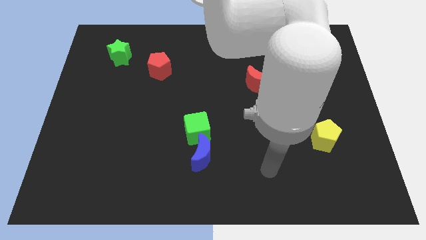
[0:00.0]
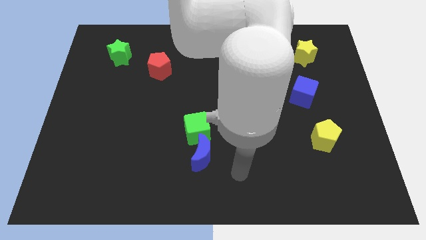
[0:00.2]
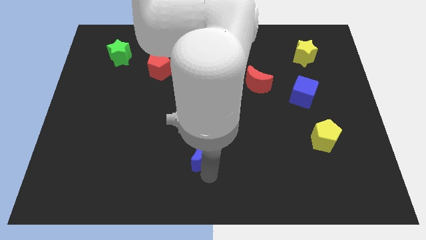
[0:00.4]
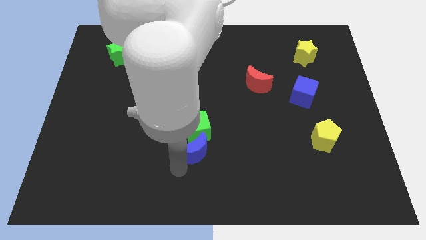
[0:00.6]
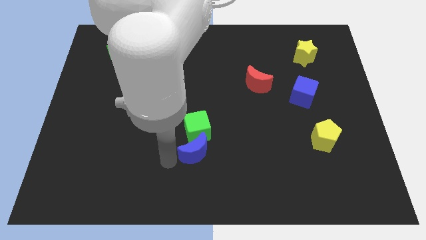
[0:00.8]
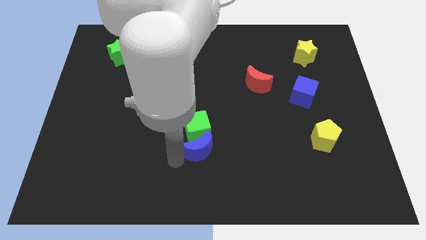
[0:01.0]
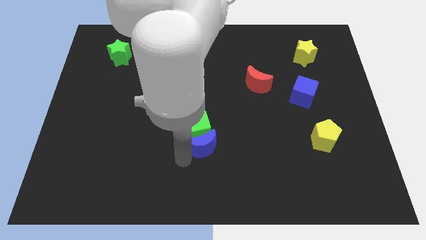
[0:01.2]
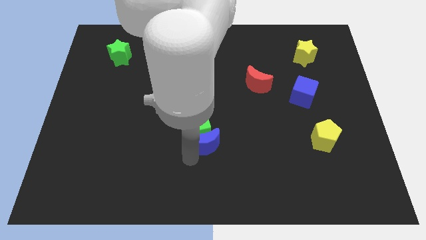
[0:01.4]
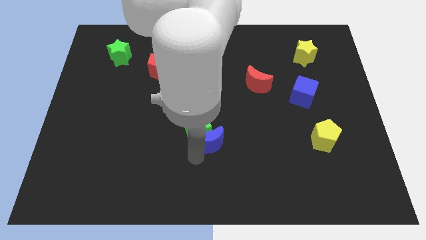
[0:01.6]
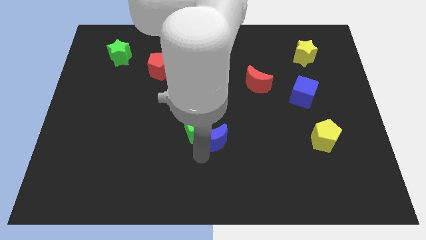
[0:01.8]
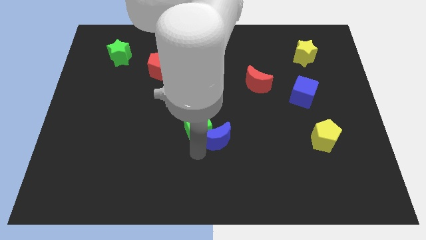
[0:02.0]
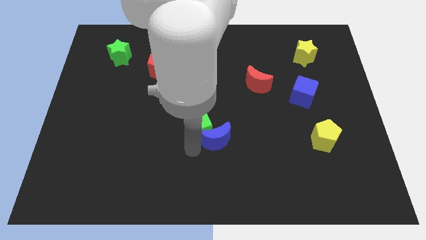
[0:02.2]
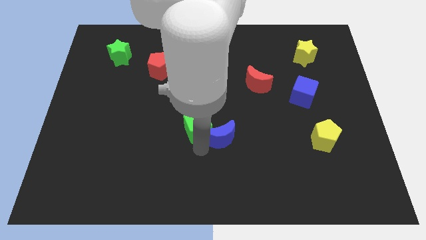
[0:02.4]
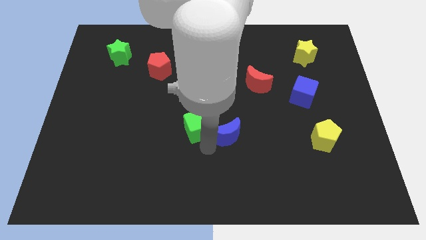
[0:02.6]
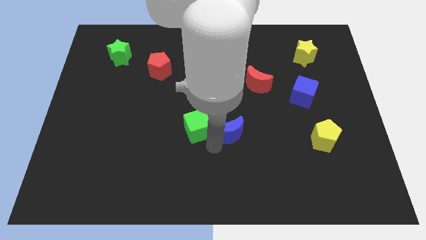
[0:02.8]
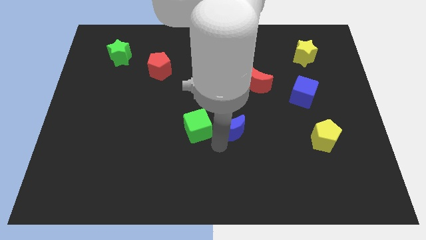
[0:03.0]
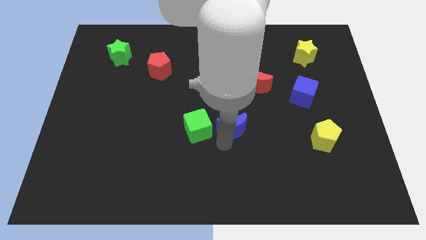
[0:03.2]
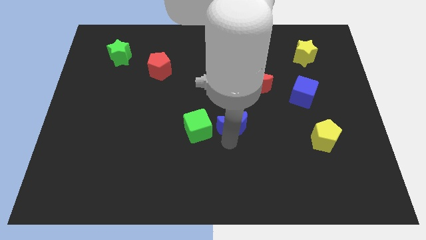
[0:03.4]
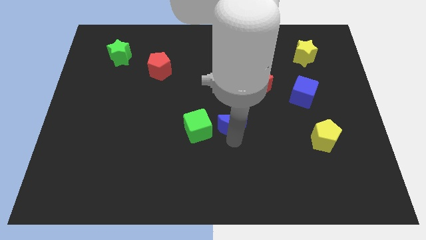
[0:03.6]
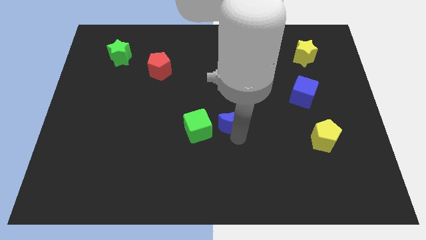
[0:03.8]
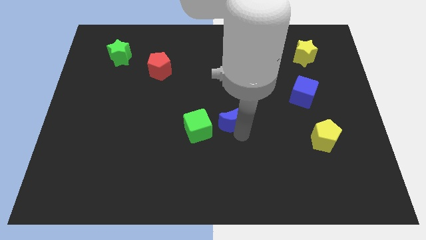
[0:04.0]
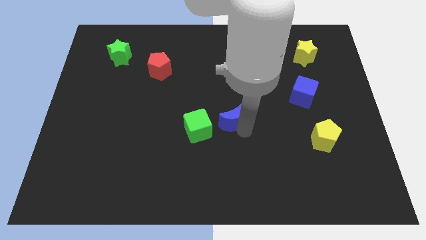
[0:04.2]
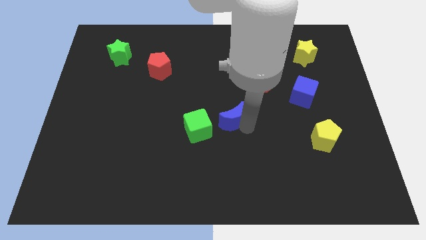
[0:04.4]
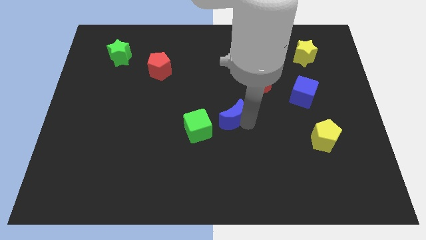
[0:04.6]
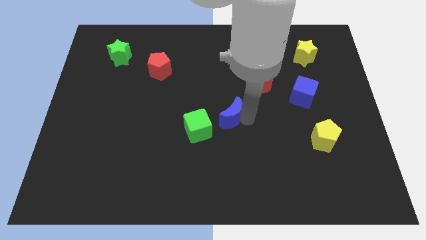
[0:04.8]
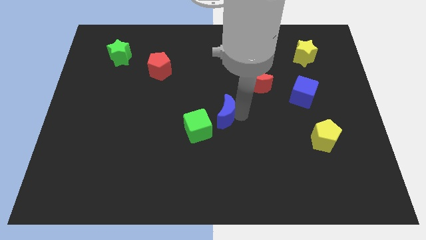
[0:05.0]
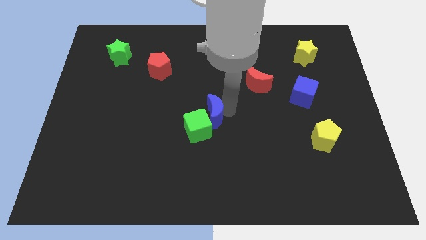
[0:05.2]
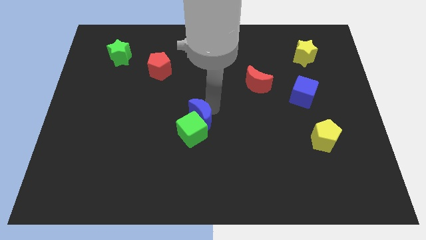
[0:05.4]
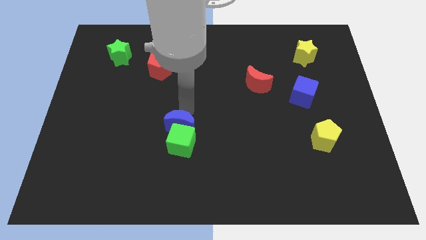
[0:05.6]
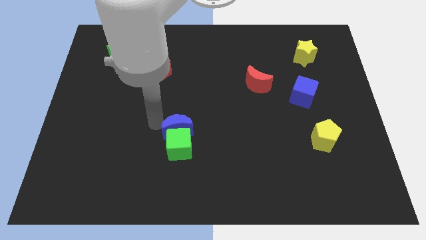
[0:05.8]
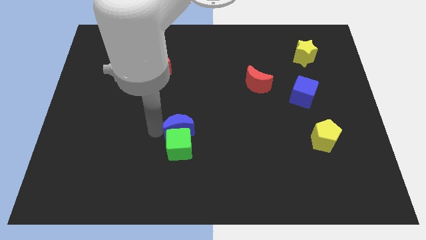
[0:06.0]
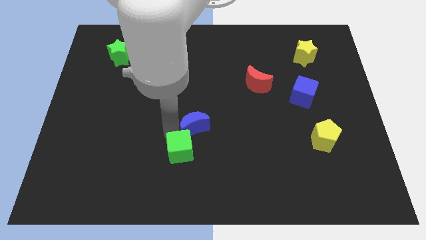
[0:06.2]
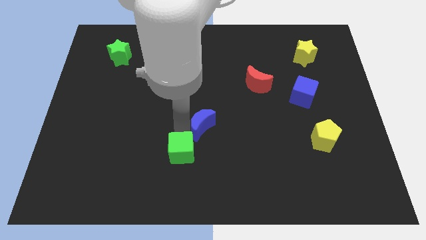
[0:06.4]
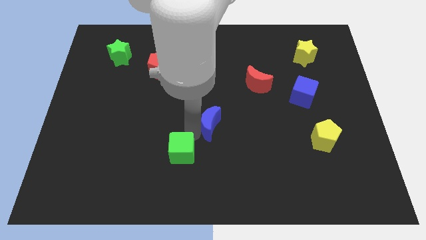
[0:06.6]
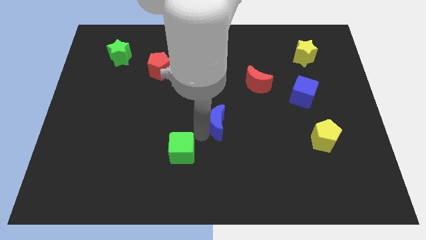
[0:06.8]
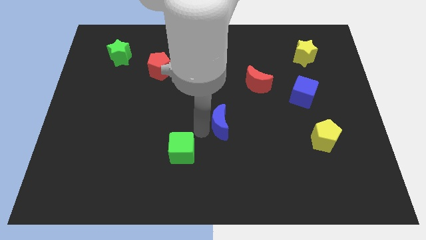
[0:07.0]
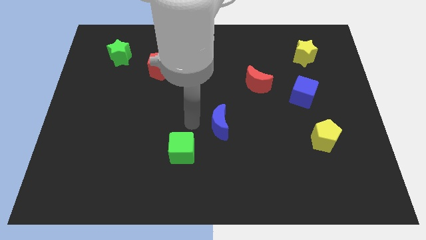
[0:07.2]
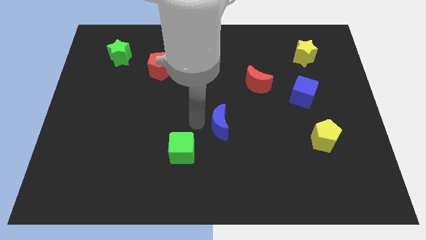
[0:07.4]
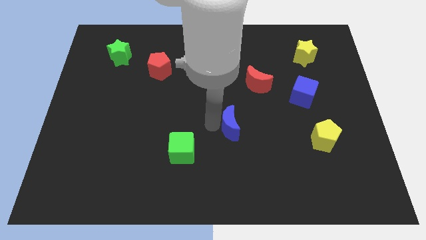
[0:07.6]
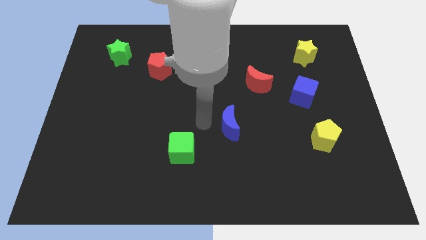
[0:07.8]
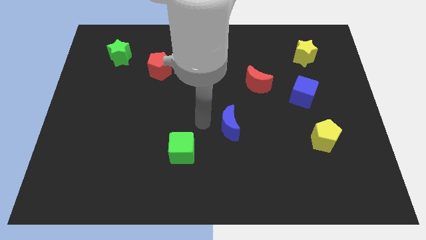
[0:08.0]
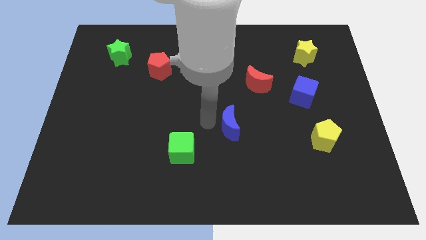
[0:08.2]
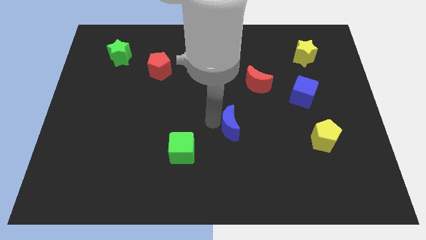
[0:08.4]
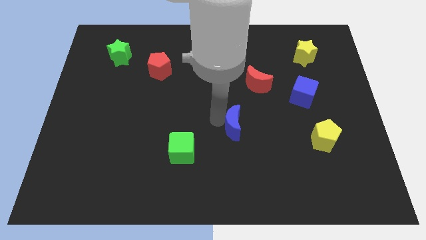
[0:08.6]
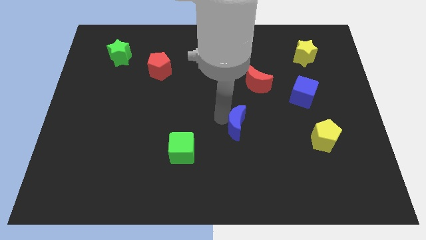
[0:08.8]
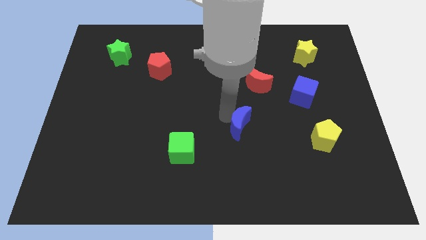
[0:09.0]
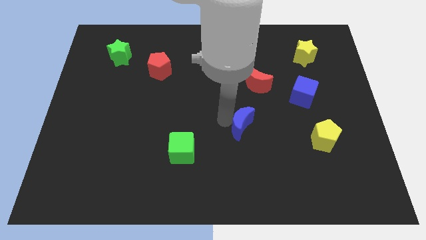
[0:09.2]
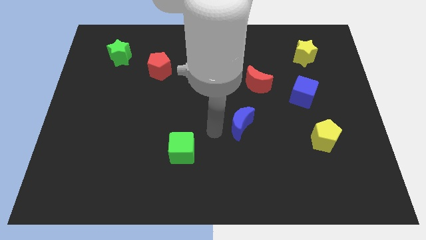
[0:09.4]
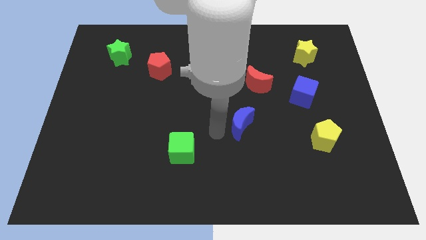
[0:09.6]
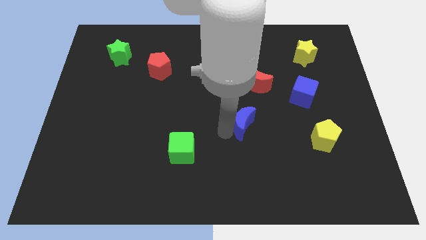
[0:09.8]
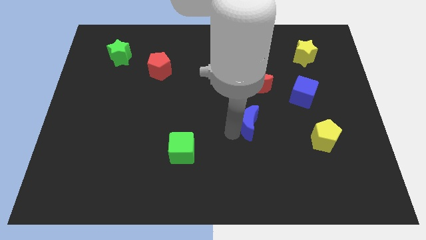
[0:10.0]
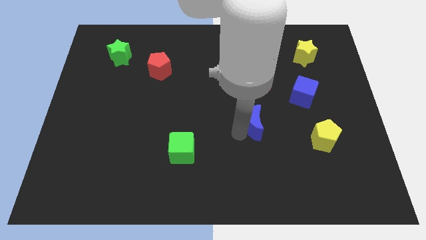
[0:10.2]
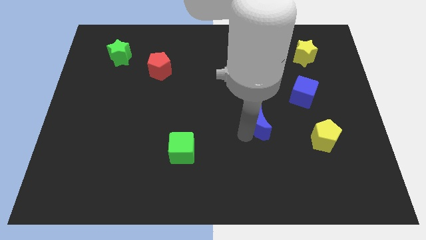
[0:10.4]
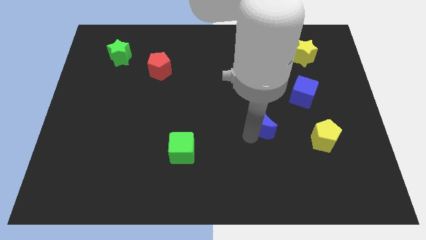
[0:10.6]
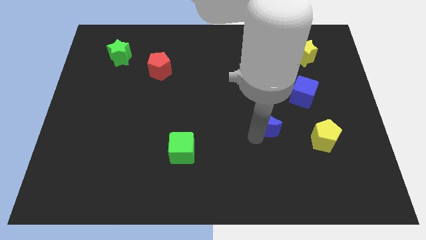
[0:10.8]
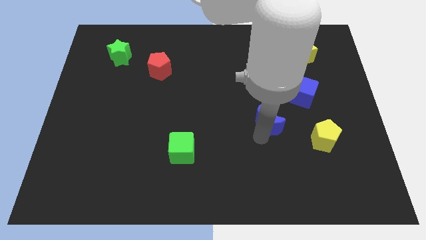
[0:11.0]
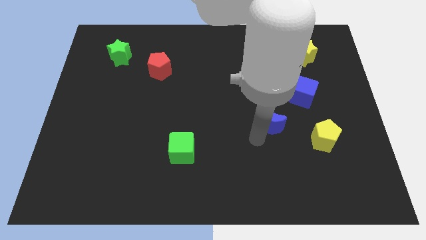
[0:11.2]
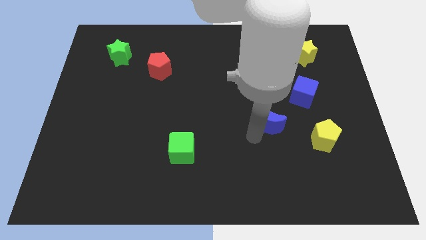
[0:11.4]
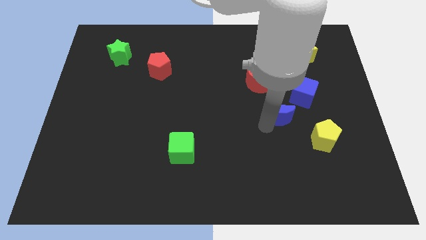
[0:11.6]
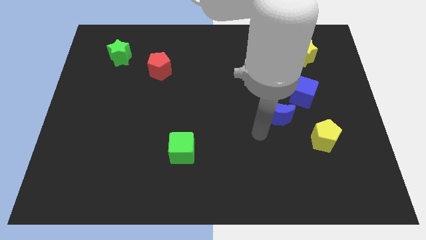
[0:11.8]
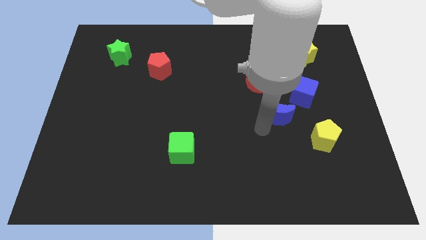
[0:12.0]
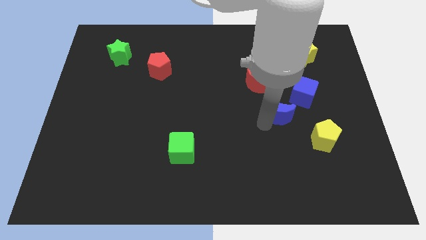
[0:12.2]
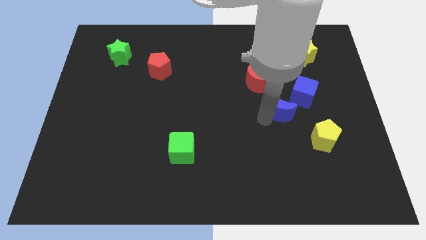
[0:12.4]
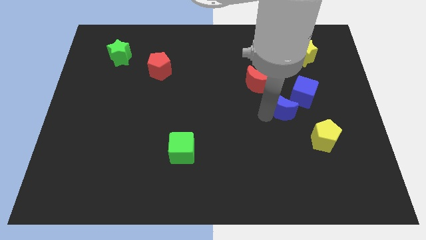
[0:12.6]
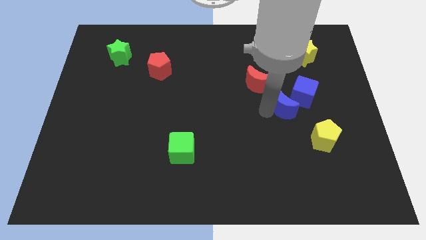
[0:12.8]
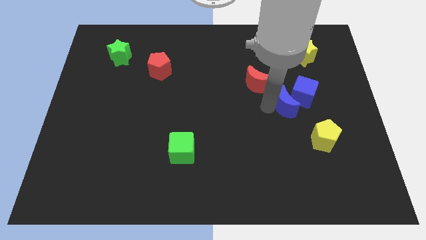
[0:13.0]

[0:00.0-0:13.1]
move the blue moon towards the blue cube

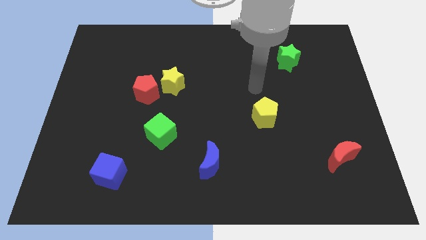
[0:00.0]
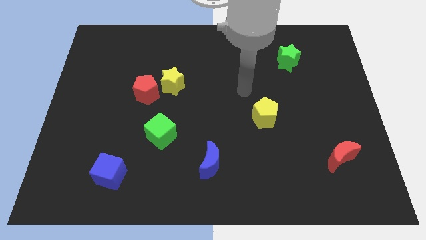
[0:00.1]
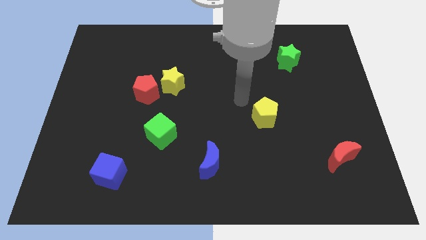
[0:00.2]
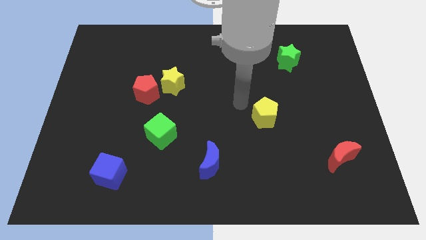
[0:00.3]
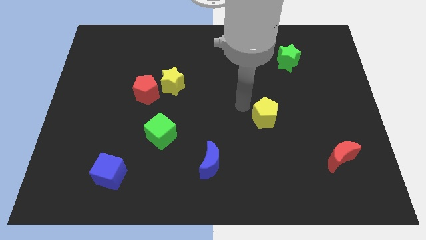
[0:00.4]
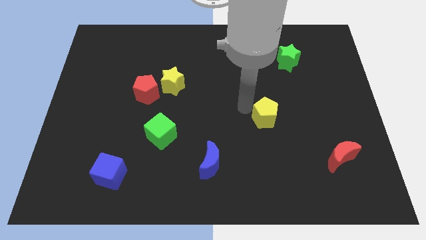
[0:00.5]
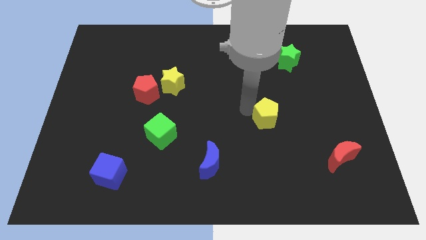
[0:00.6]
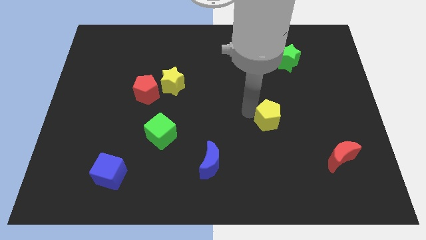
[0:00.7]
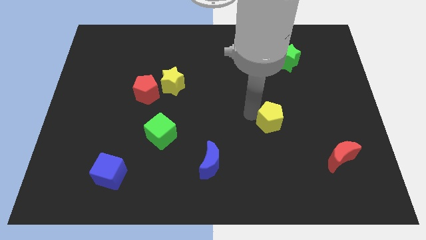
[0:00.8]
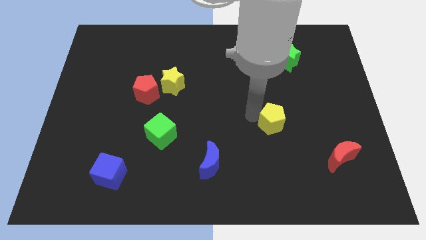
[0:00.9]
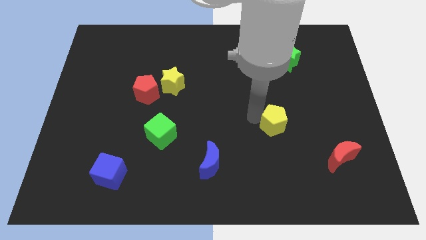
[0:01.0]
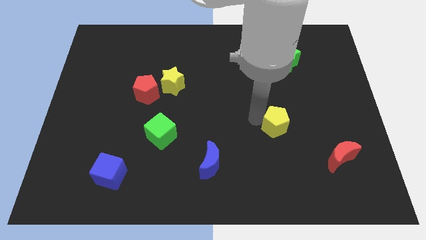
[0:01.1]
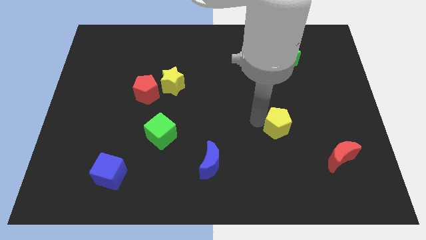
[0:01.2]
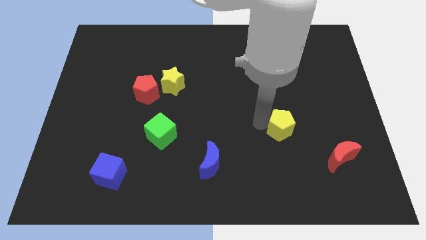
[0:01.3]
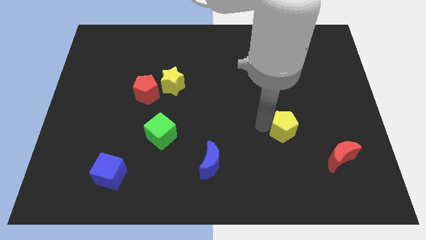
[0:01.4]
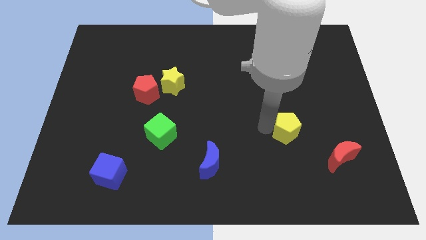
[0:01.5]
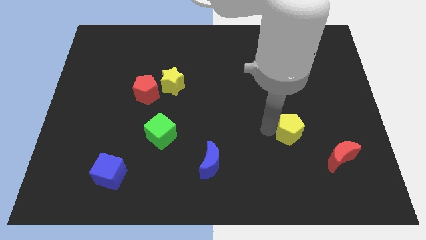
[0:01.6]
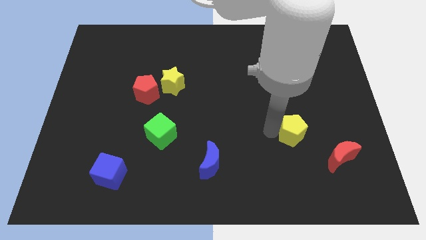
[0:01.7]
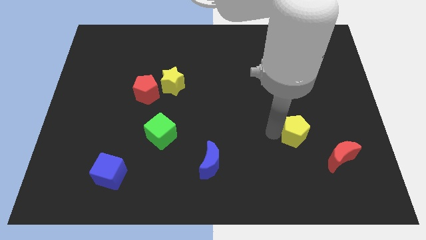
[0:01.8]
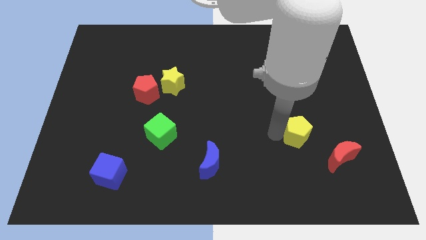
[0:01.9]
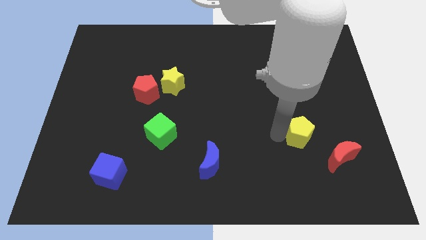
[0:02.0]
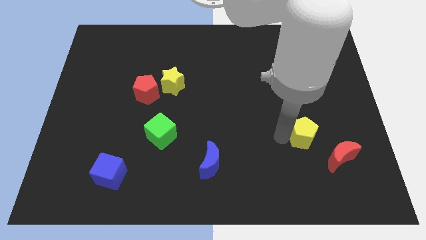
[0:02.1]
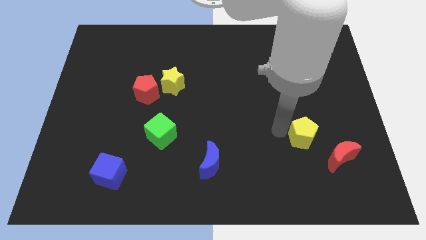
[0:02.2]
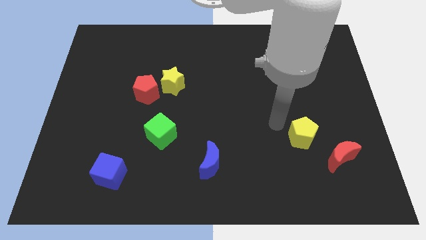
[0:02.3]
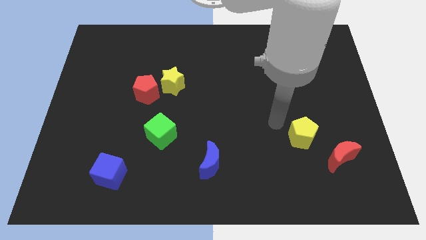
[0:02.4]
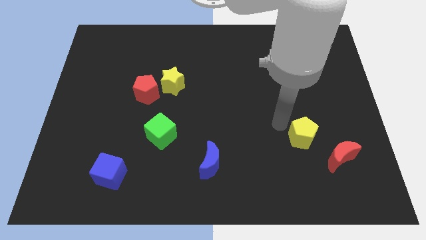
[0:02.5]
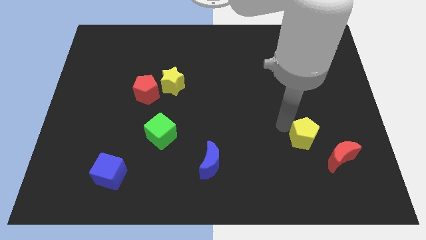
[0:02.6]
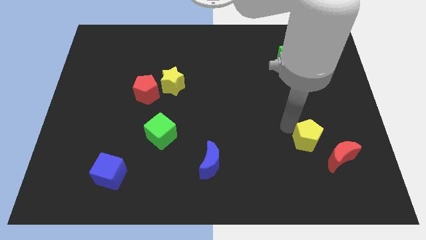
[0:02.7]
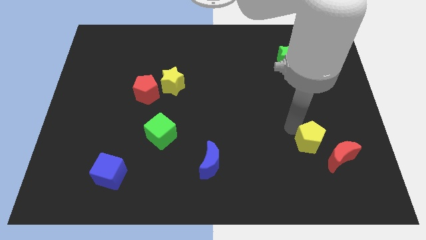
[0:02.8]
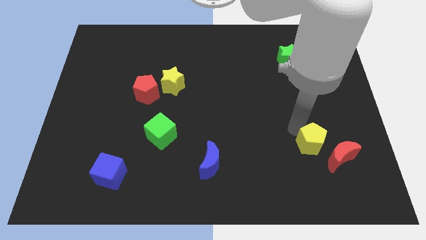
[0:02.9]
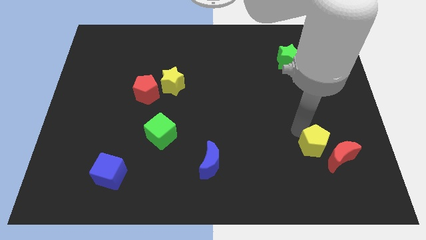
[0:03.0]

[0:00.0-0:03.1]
put the yellow pentagon to the red moon
